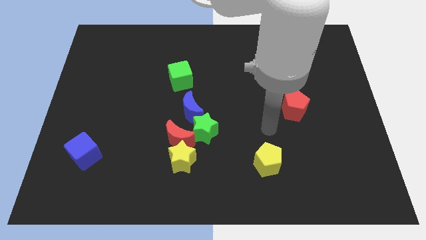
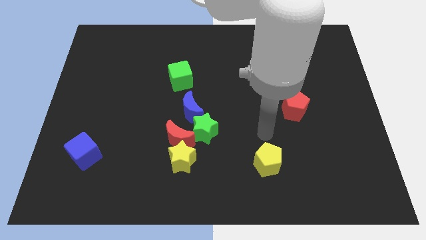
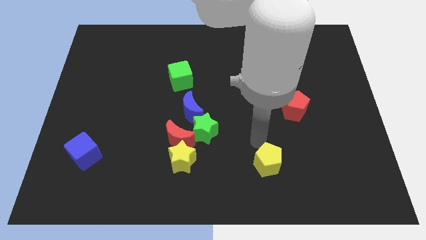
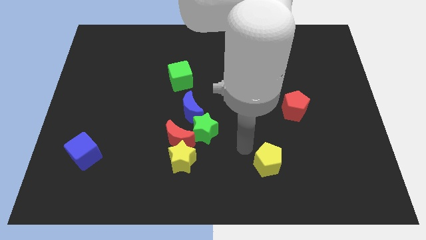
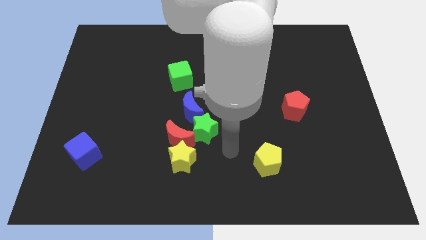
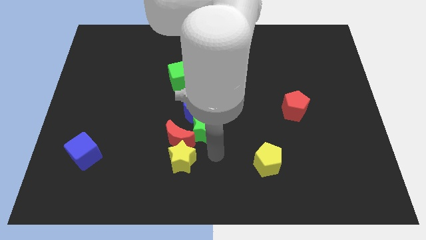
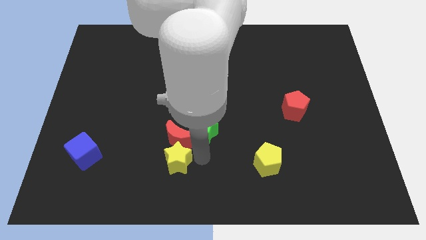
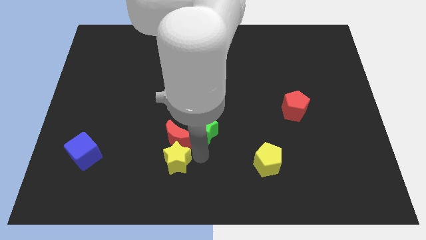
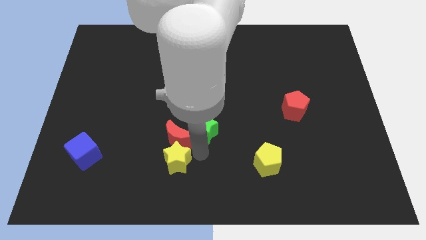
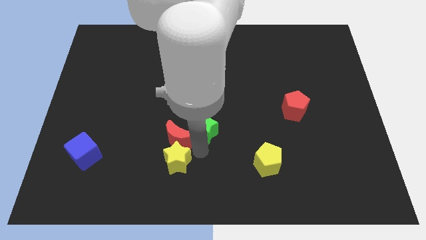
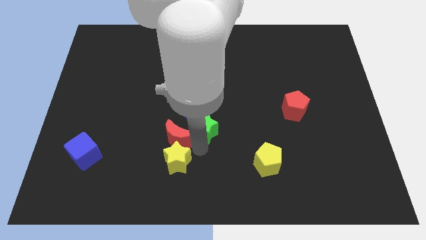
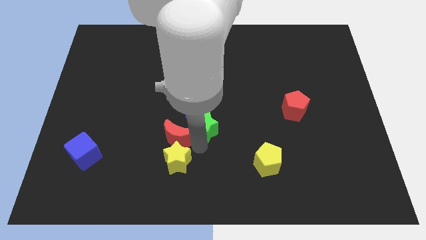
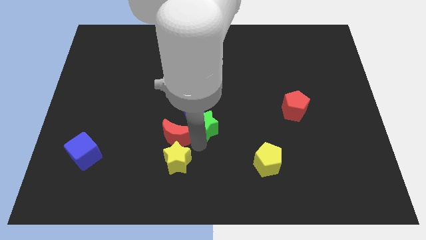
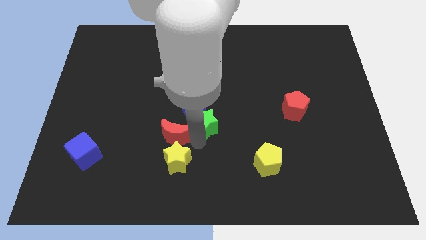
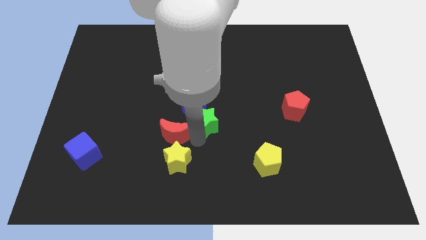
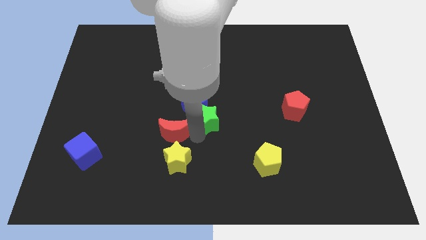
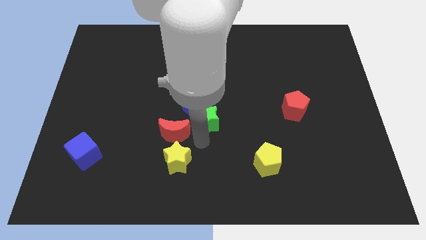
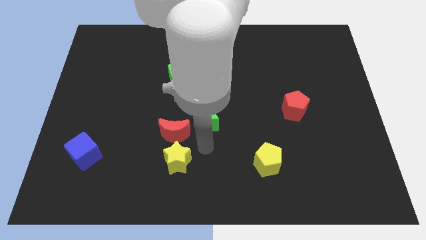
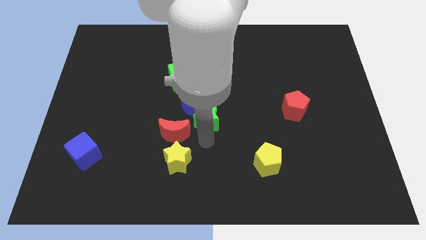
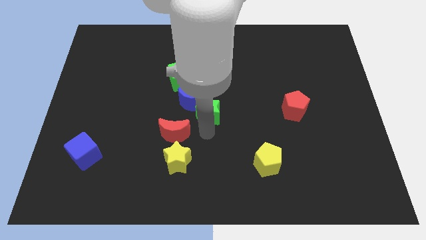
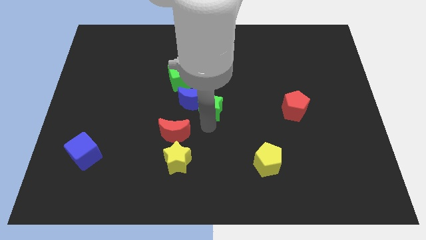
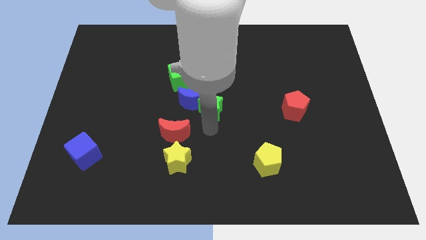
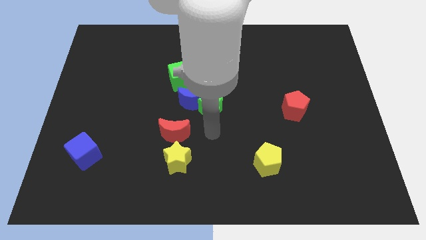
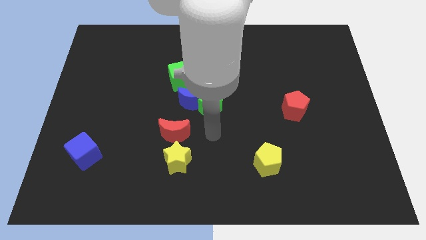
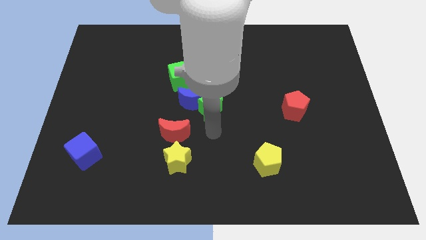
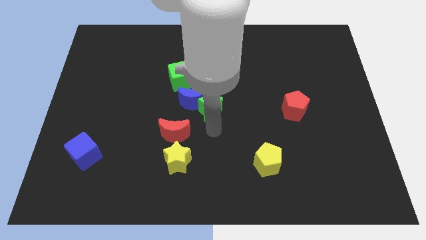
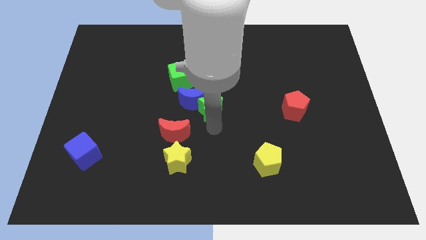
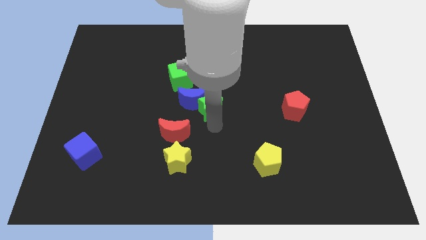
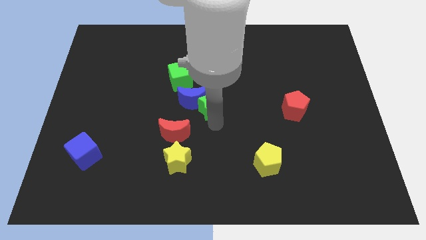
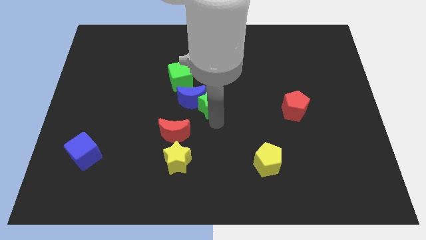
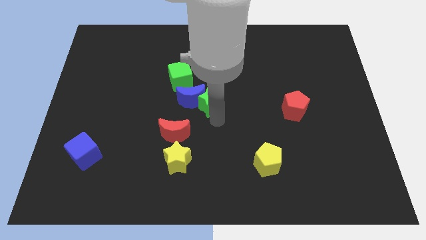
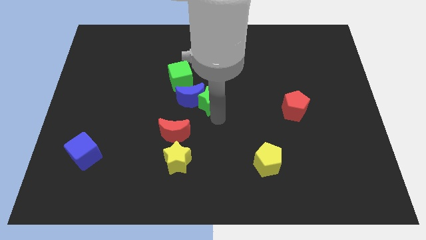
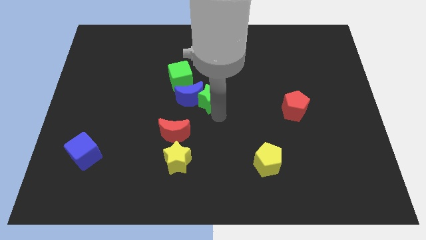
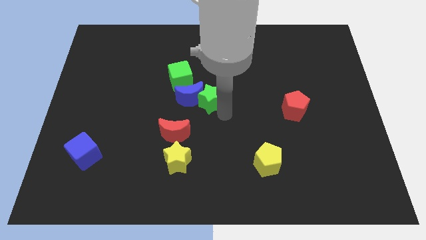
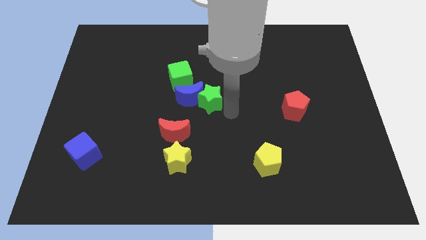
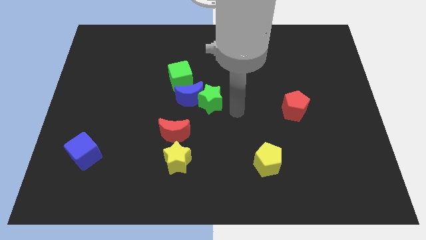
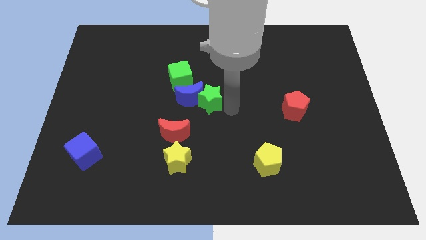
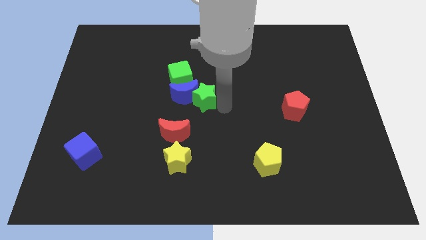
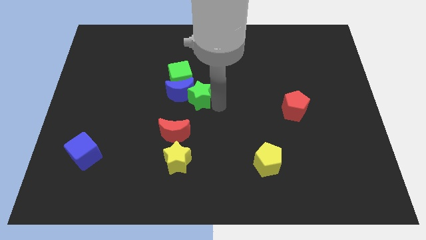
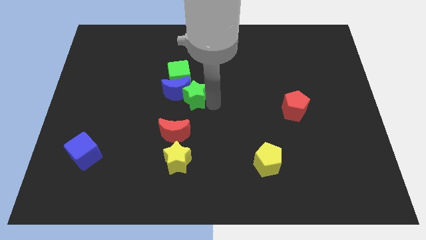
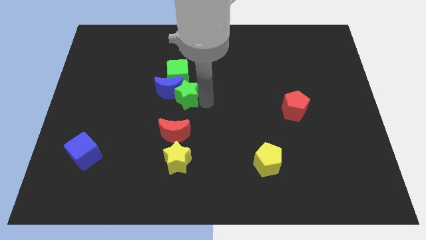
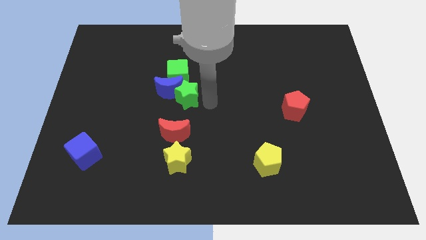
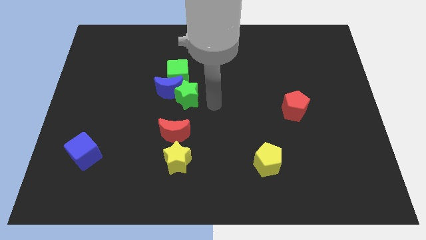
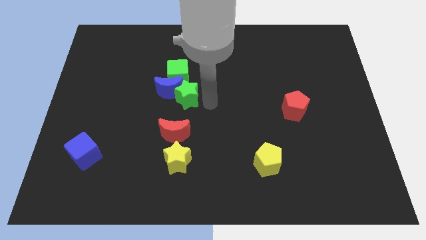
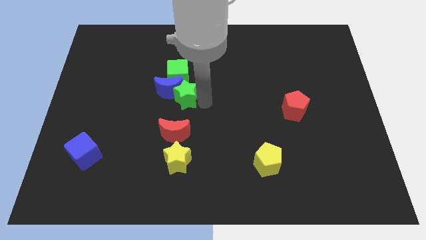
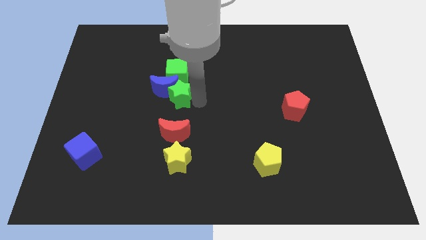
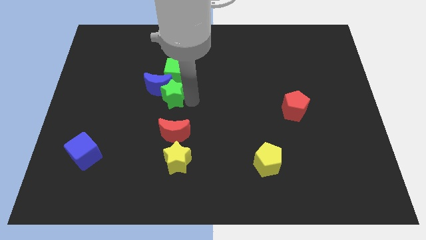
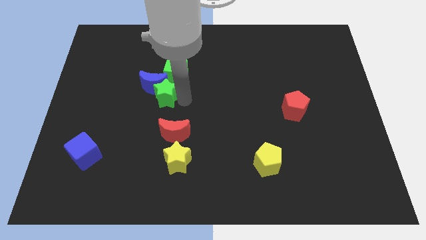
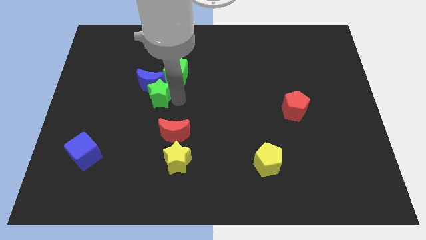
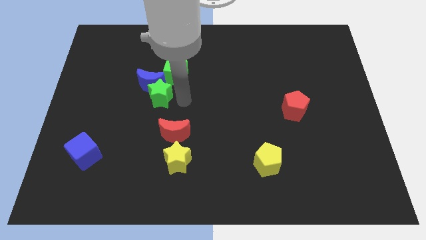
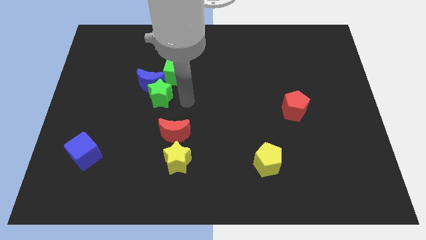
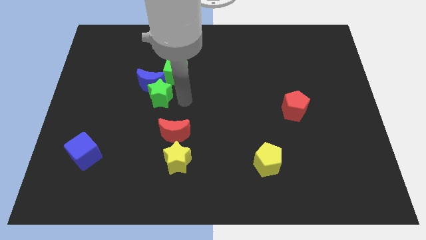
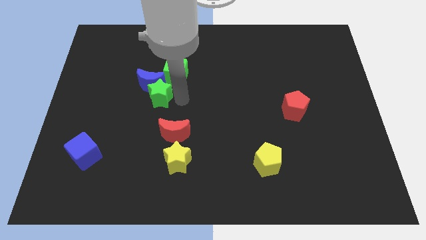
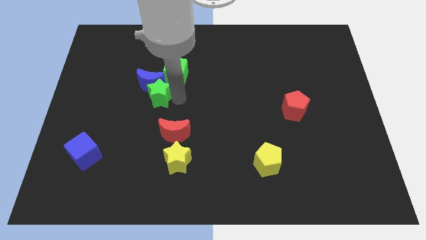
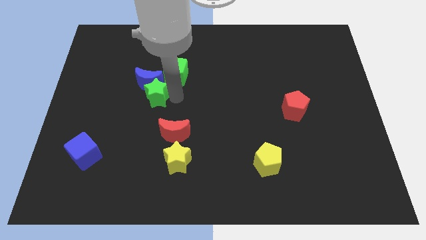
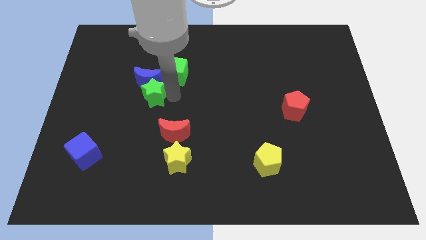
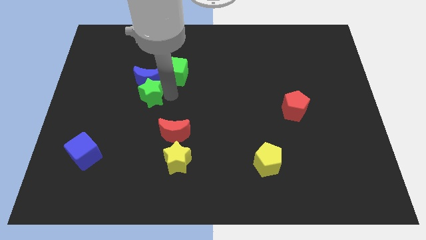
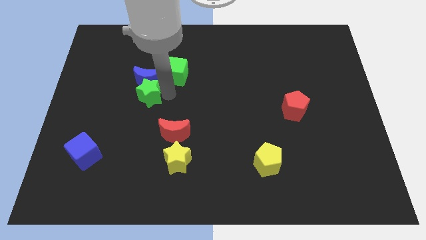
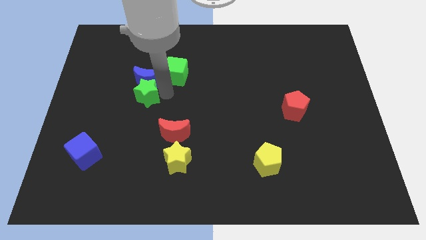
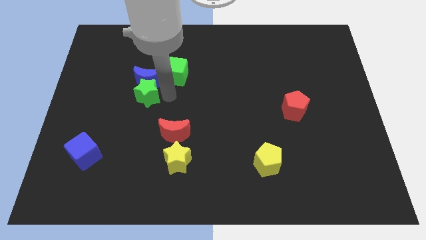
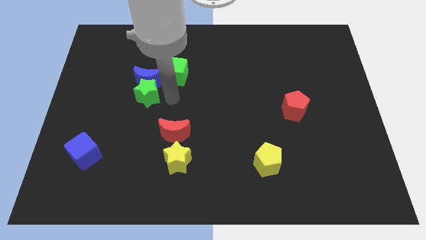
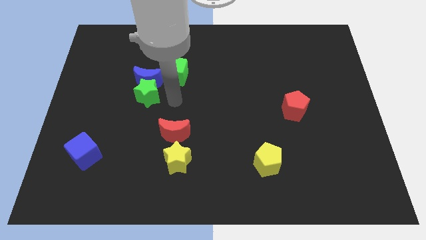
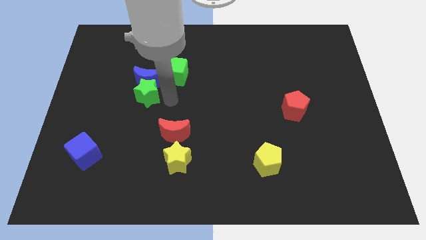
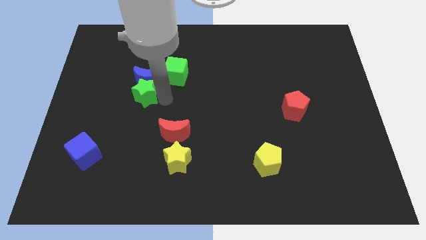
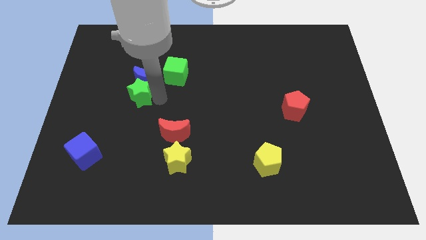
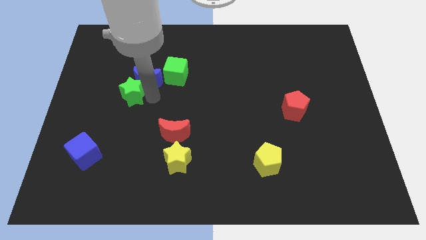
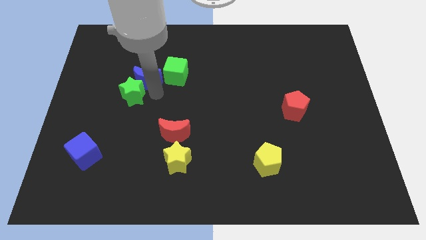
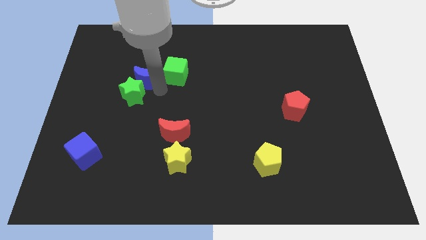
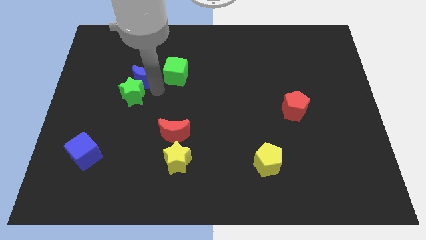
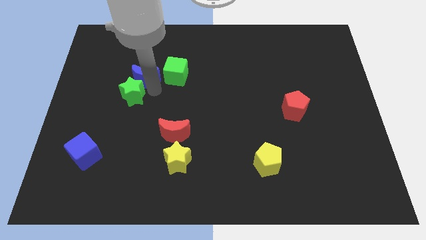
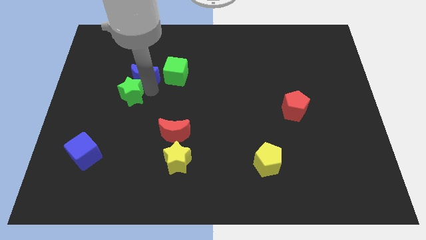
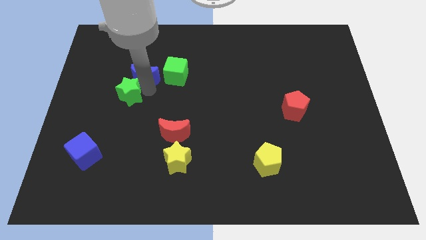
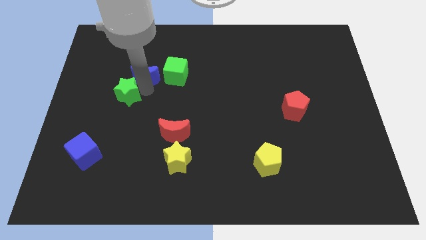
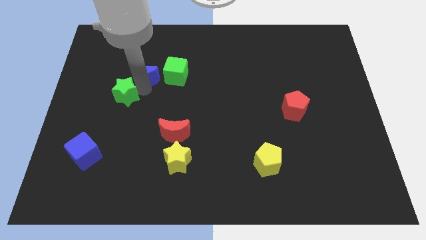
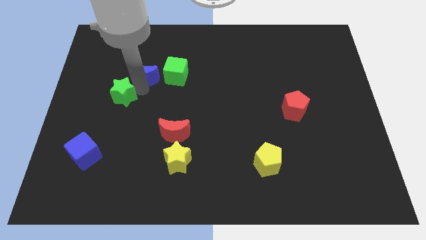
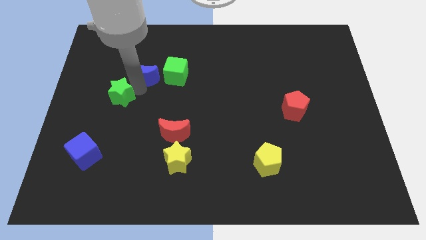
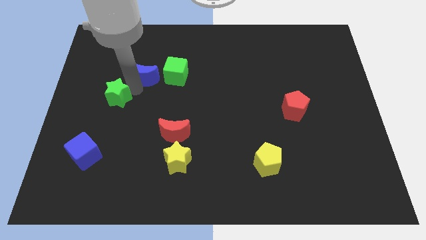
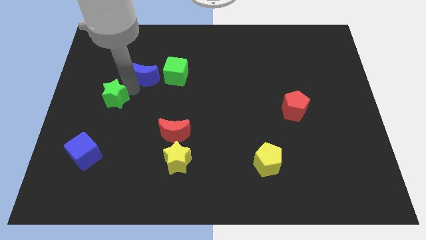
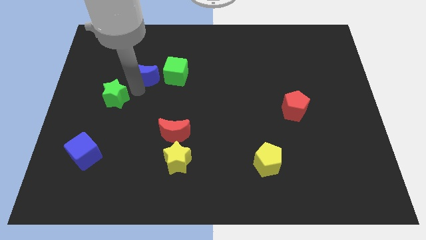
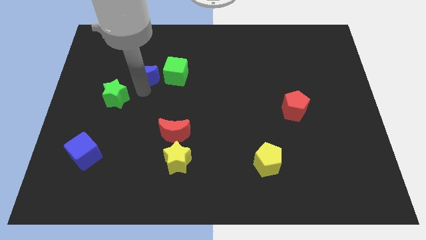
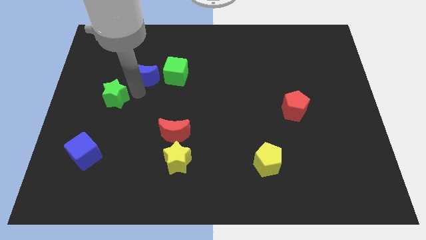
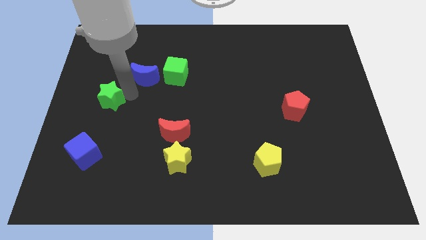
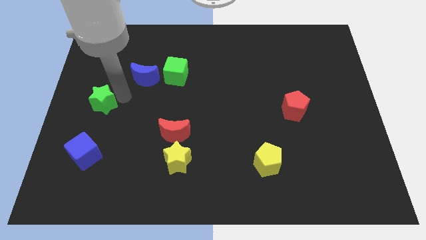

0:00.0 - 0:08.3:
slide the green star to the left side of the board
